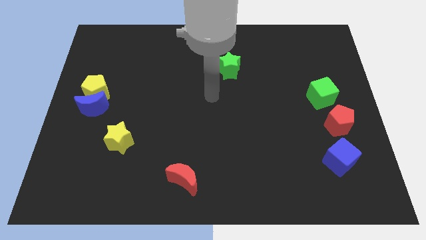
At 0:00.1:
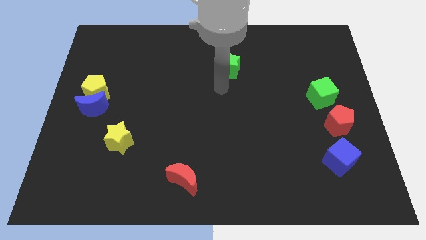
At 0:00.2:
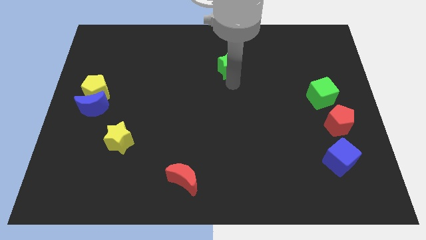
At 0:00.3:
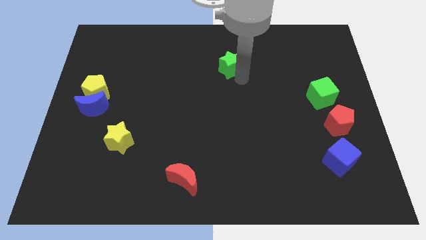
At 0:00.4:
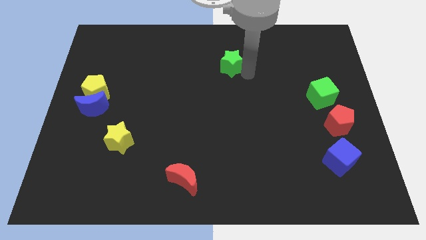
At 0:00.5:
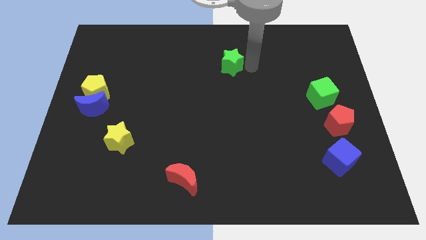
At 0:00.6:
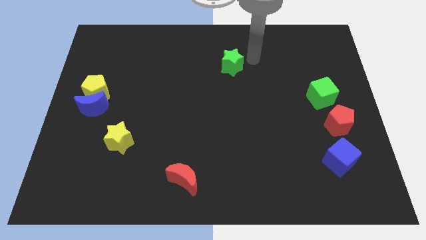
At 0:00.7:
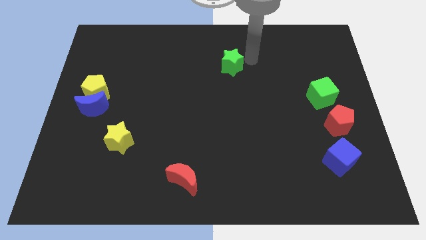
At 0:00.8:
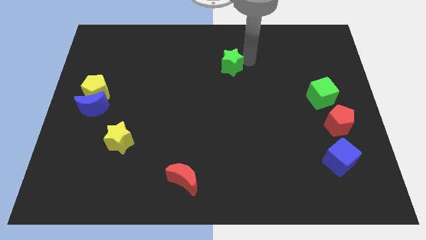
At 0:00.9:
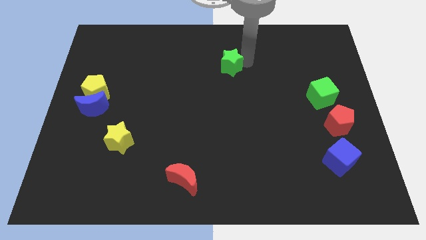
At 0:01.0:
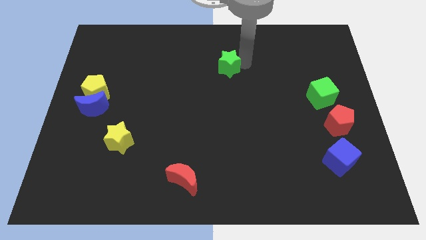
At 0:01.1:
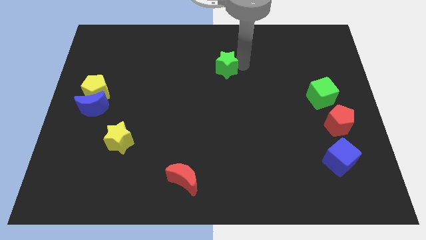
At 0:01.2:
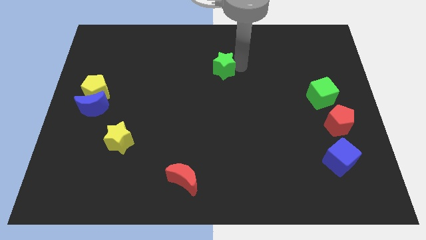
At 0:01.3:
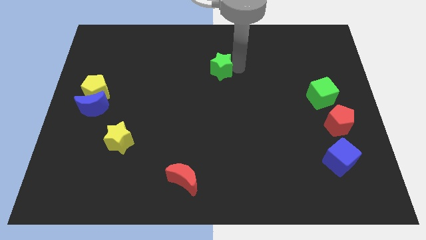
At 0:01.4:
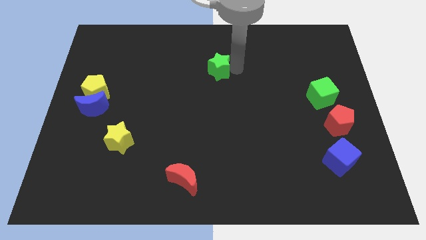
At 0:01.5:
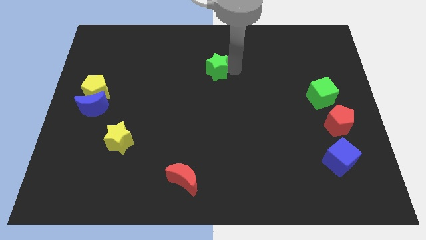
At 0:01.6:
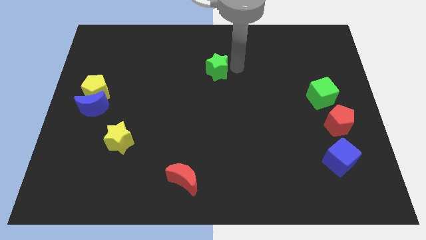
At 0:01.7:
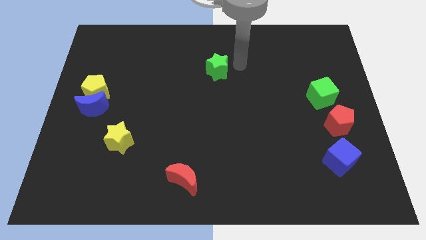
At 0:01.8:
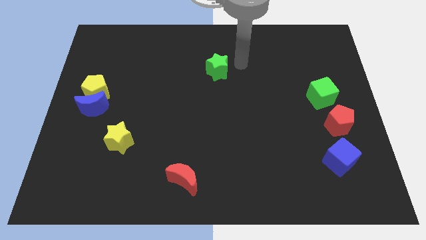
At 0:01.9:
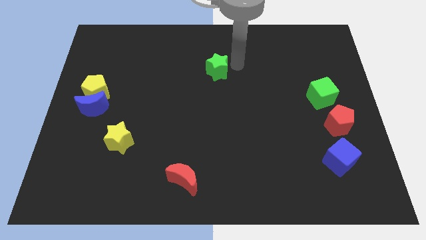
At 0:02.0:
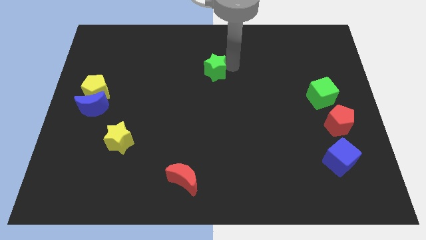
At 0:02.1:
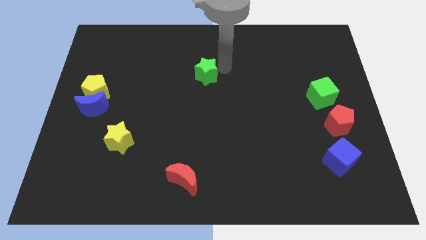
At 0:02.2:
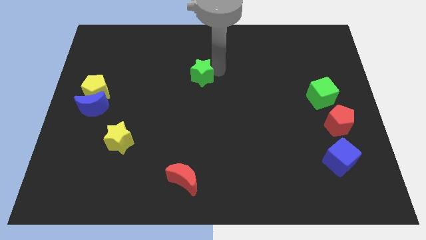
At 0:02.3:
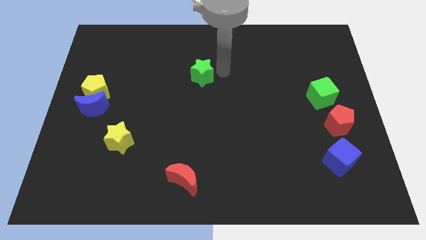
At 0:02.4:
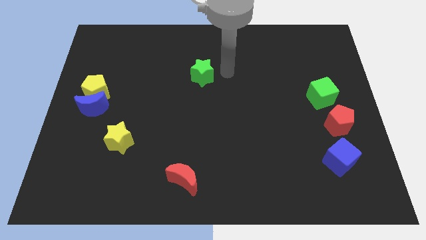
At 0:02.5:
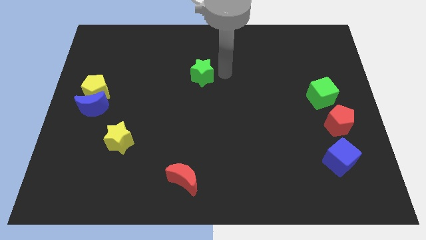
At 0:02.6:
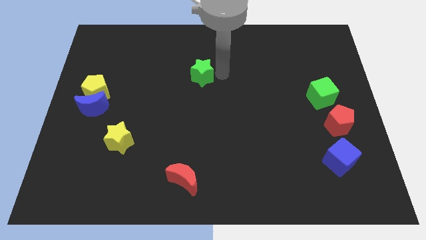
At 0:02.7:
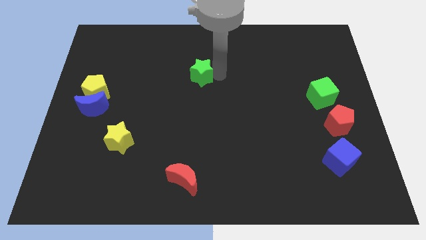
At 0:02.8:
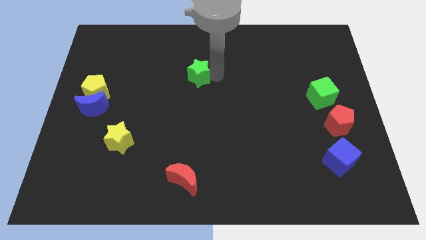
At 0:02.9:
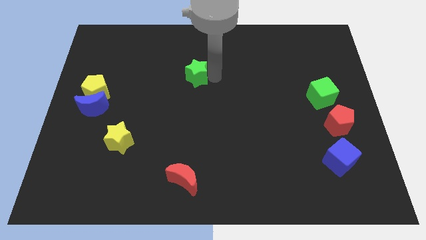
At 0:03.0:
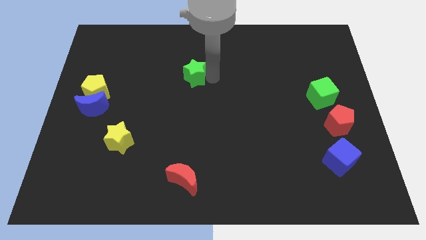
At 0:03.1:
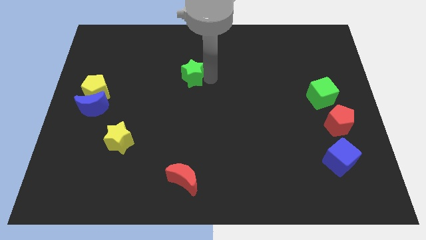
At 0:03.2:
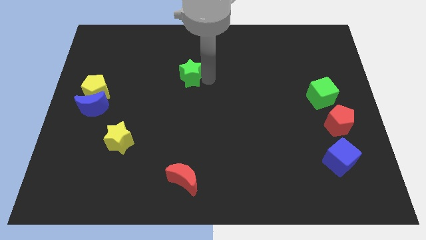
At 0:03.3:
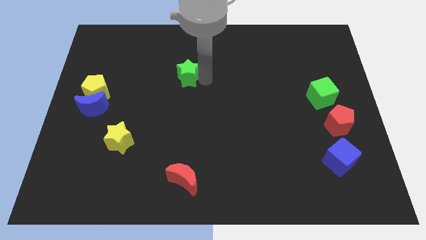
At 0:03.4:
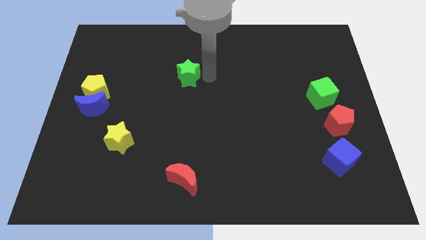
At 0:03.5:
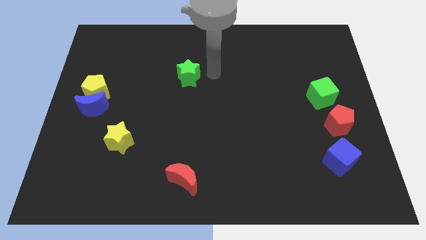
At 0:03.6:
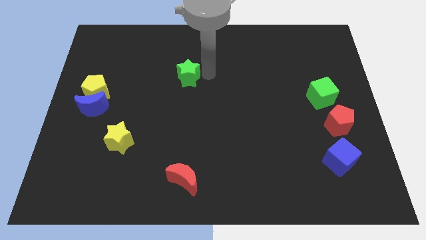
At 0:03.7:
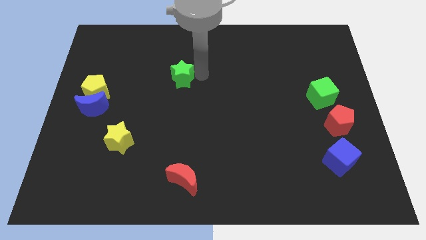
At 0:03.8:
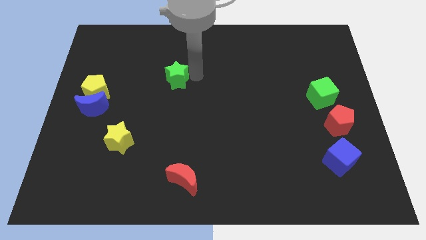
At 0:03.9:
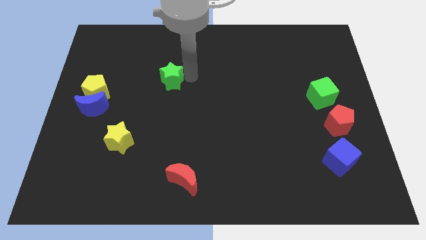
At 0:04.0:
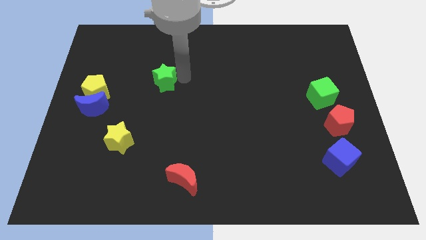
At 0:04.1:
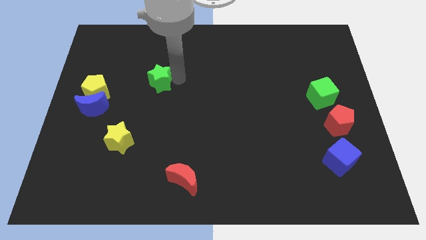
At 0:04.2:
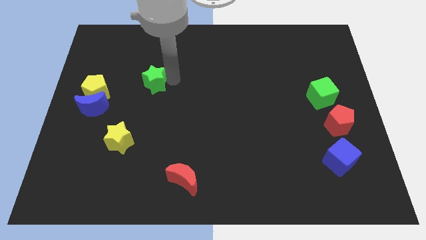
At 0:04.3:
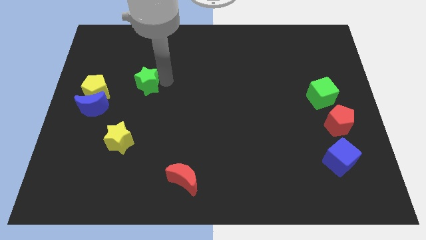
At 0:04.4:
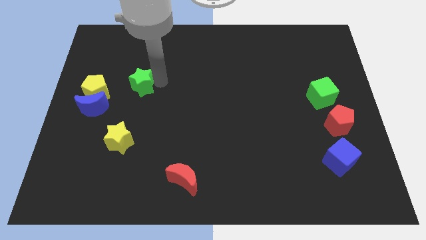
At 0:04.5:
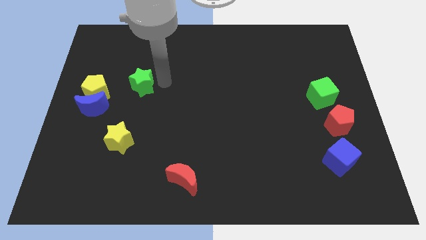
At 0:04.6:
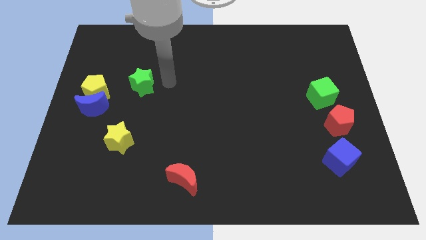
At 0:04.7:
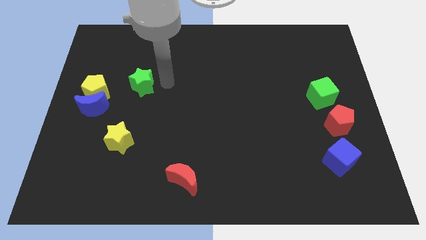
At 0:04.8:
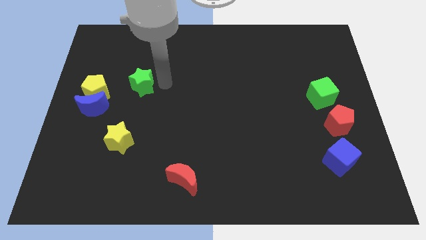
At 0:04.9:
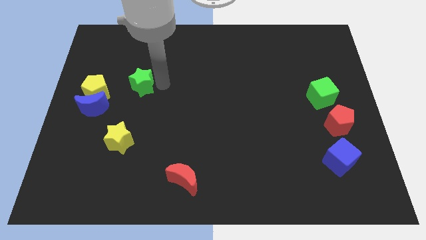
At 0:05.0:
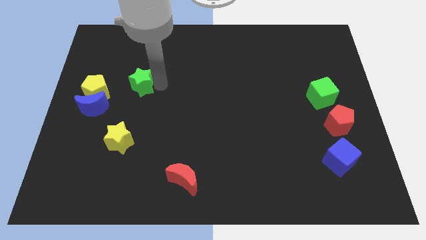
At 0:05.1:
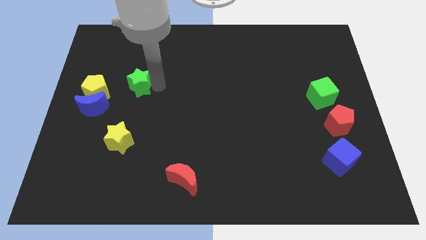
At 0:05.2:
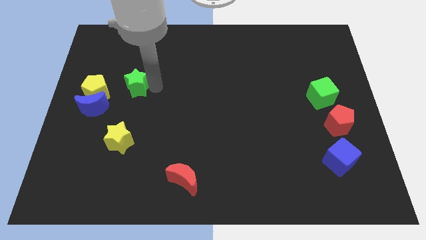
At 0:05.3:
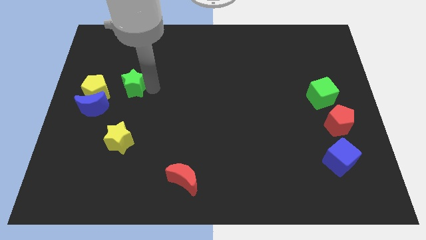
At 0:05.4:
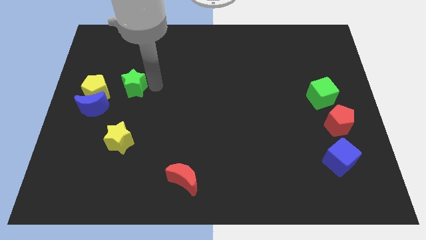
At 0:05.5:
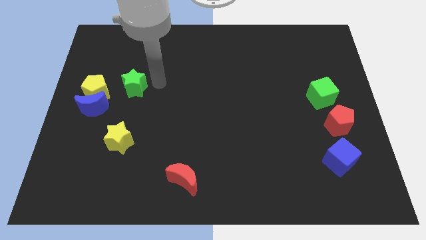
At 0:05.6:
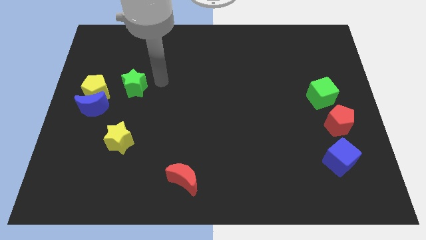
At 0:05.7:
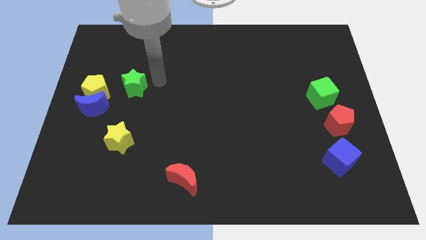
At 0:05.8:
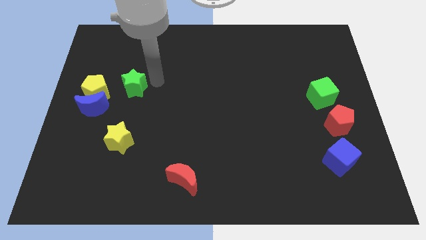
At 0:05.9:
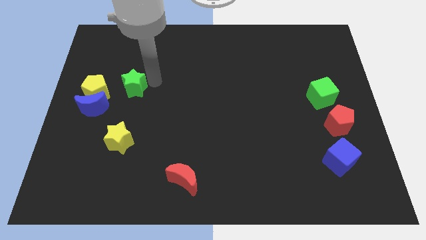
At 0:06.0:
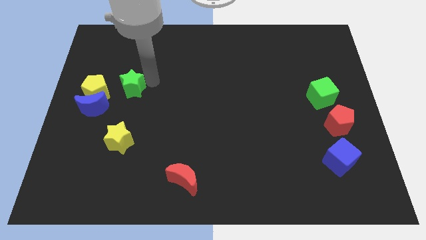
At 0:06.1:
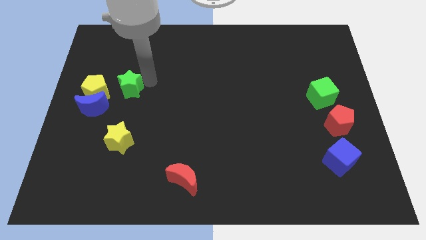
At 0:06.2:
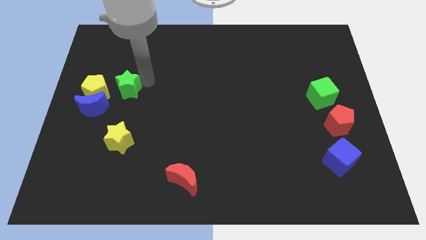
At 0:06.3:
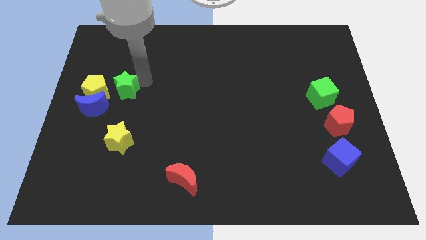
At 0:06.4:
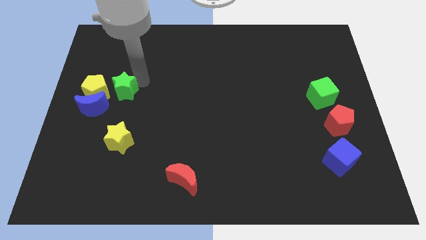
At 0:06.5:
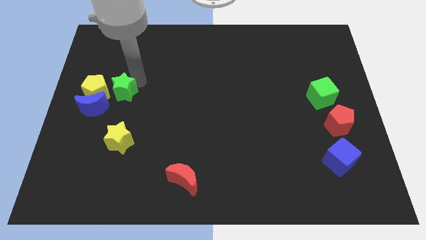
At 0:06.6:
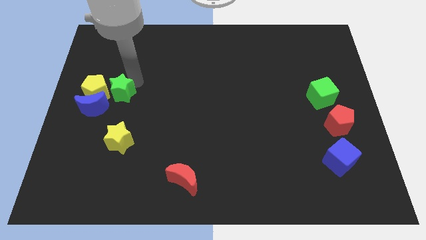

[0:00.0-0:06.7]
push the green star close to the yellow pentagon

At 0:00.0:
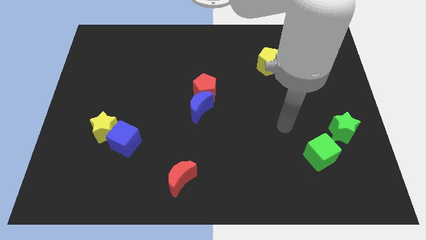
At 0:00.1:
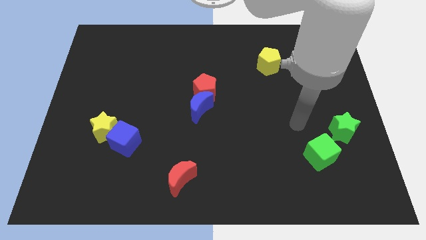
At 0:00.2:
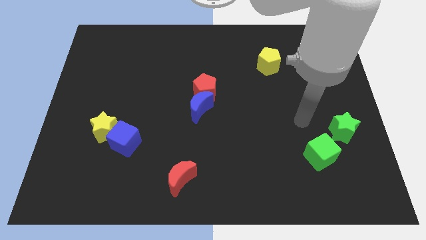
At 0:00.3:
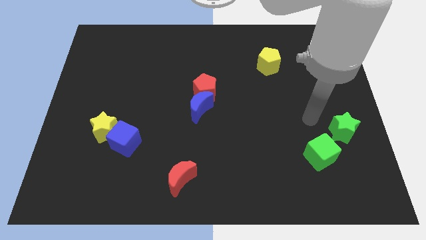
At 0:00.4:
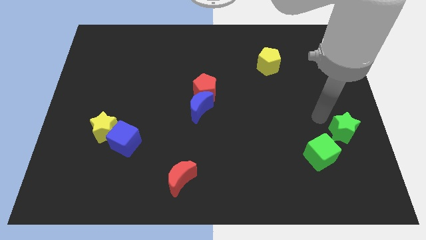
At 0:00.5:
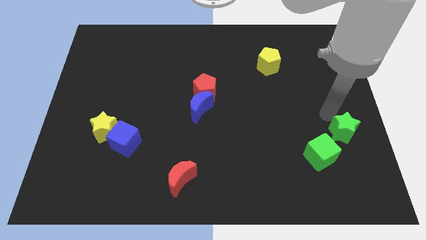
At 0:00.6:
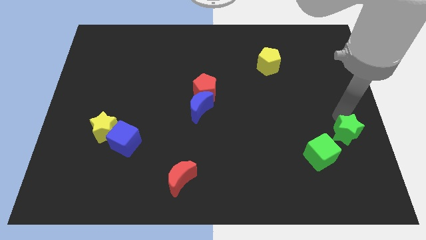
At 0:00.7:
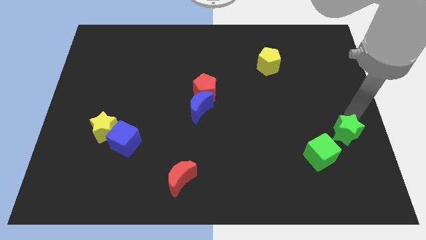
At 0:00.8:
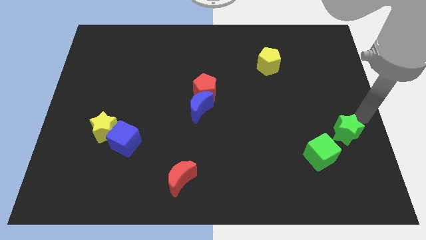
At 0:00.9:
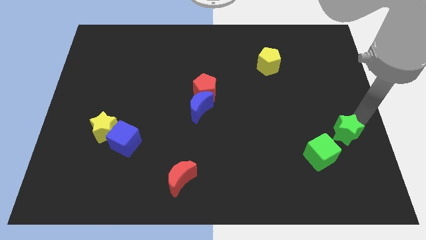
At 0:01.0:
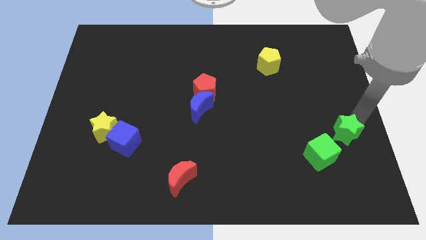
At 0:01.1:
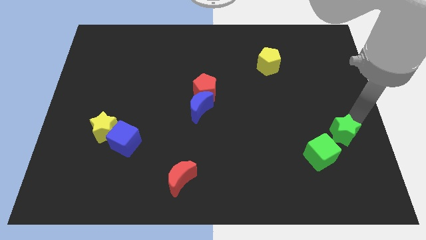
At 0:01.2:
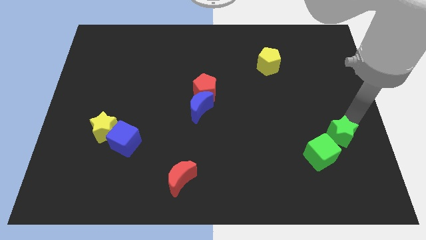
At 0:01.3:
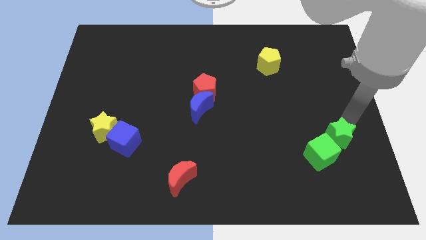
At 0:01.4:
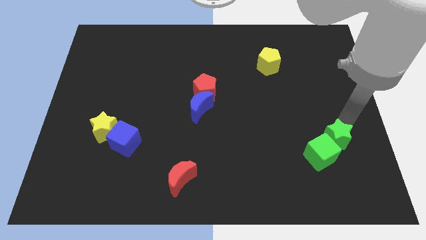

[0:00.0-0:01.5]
push the green star next to the green cube
